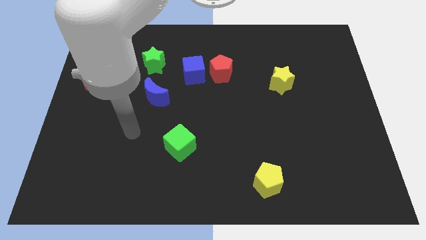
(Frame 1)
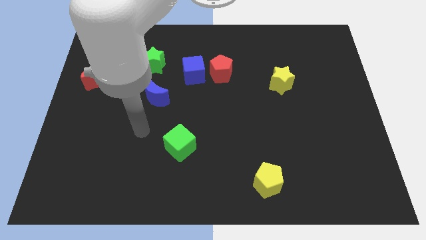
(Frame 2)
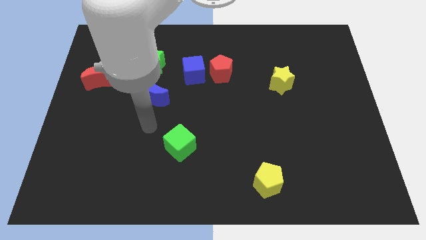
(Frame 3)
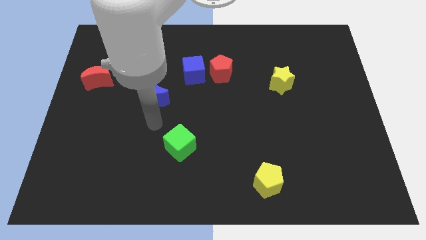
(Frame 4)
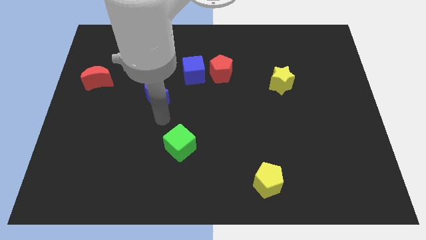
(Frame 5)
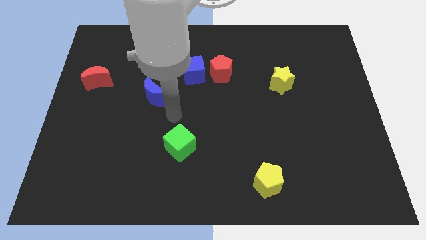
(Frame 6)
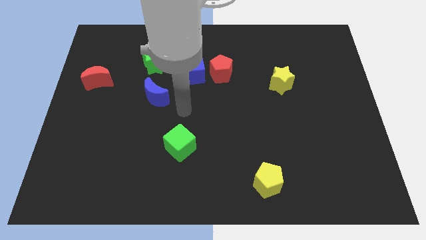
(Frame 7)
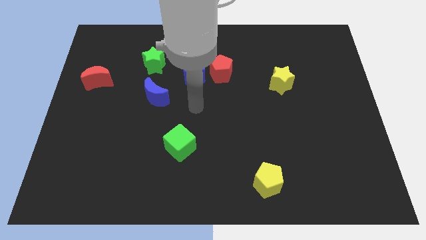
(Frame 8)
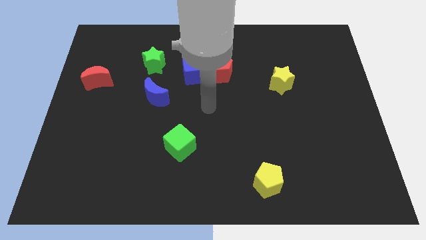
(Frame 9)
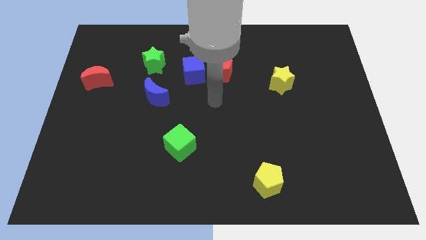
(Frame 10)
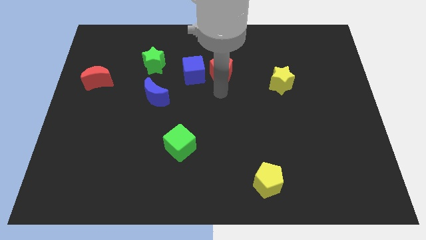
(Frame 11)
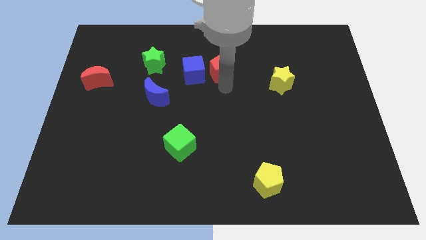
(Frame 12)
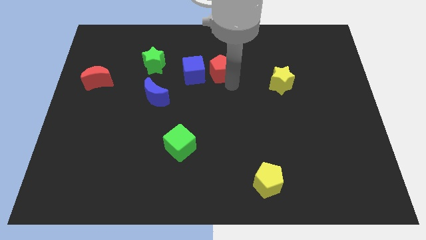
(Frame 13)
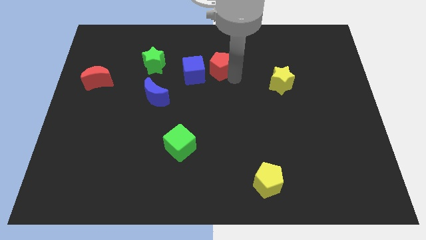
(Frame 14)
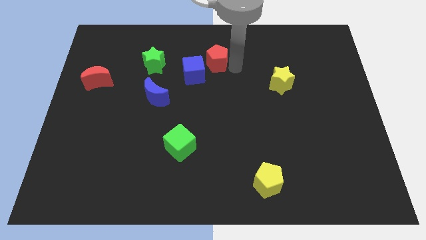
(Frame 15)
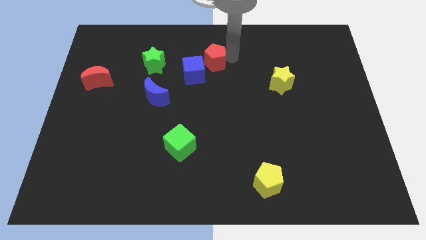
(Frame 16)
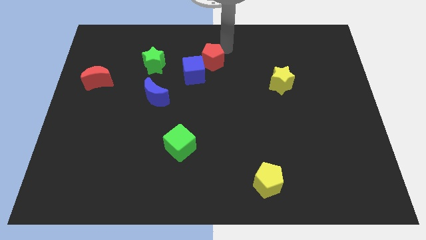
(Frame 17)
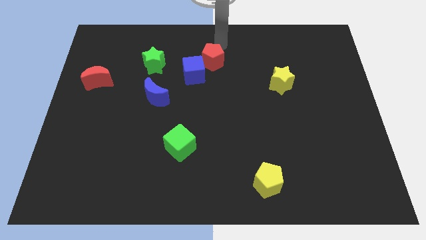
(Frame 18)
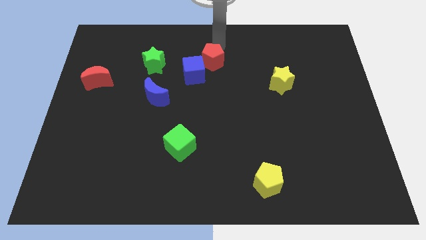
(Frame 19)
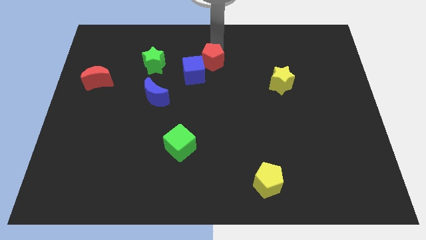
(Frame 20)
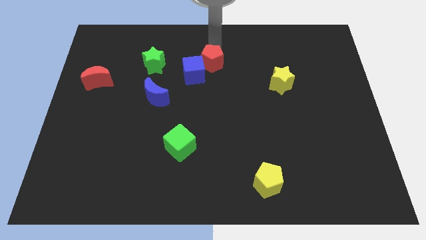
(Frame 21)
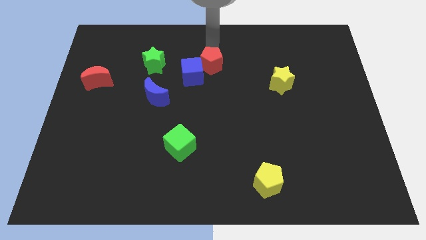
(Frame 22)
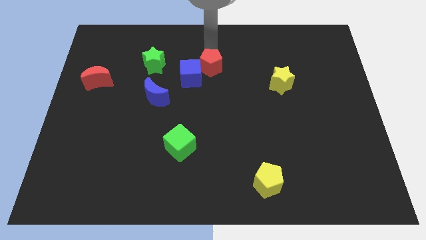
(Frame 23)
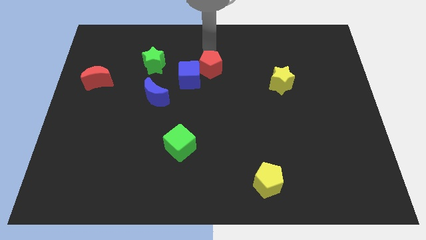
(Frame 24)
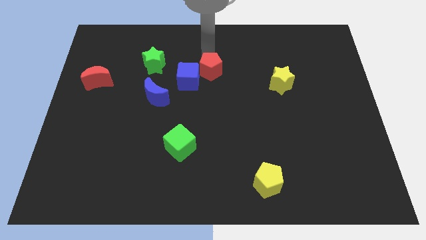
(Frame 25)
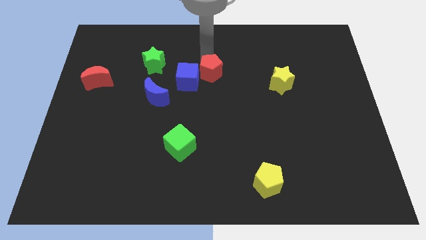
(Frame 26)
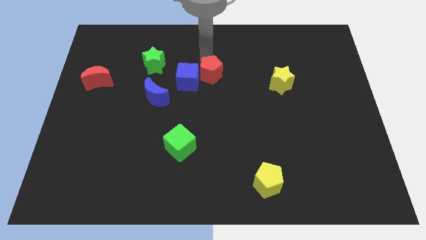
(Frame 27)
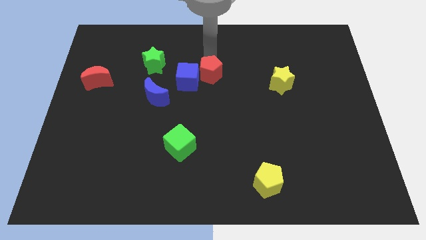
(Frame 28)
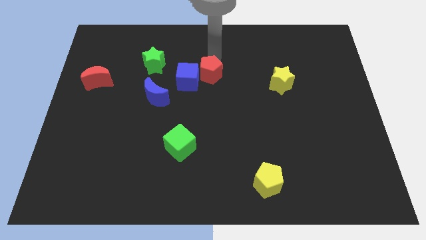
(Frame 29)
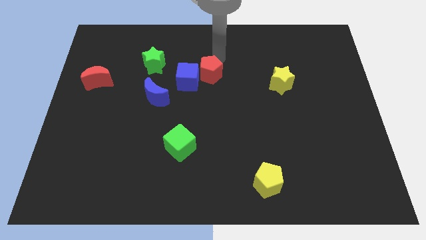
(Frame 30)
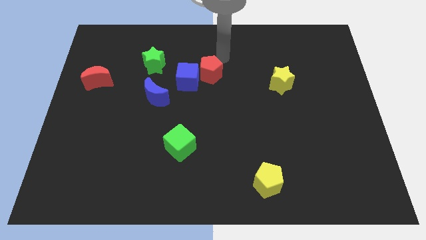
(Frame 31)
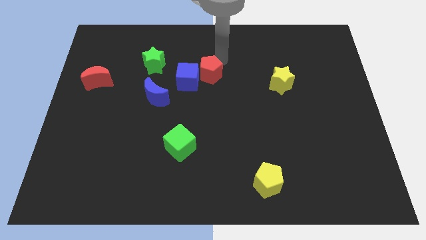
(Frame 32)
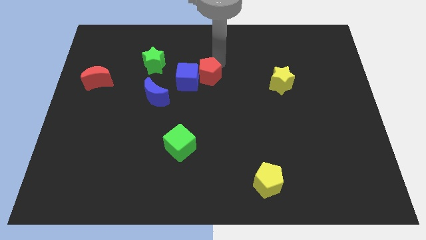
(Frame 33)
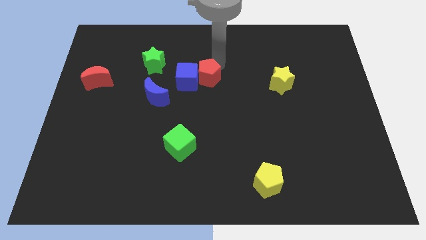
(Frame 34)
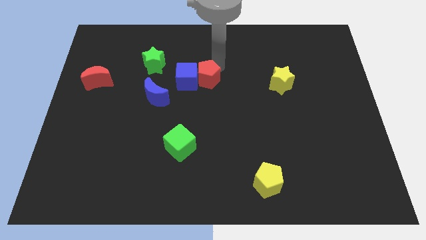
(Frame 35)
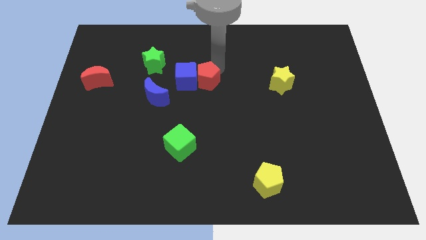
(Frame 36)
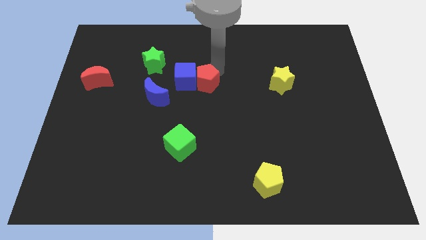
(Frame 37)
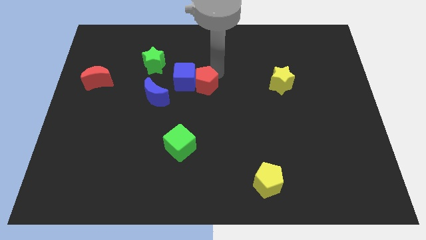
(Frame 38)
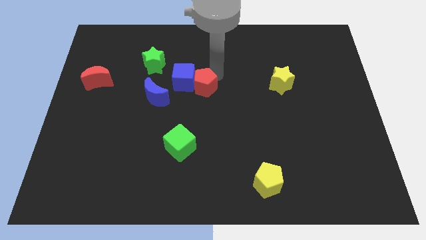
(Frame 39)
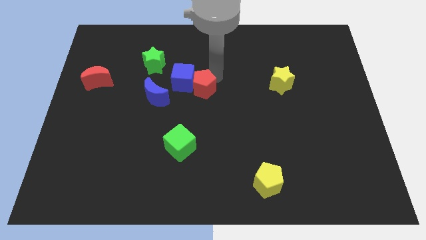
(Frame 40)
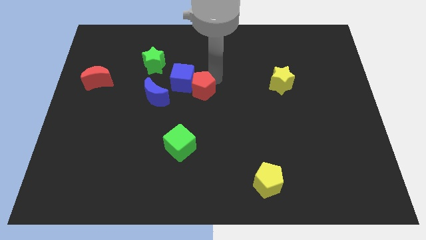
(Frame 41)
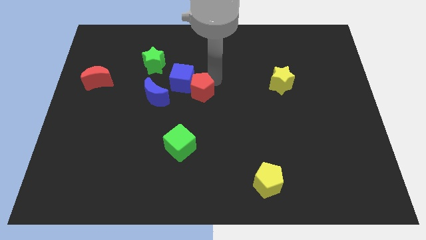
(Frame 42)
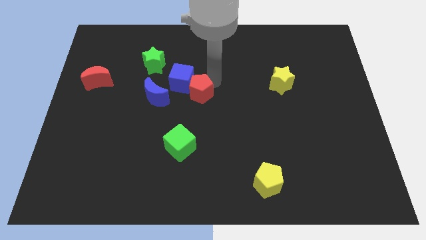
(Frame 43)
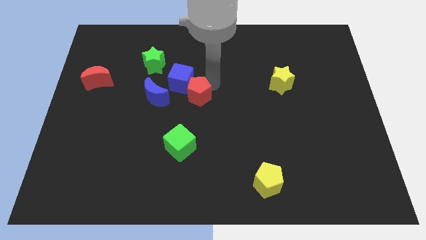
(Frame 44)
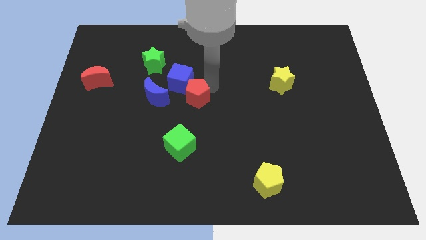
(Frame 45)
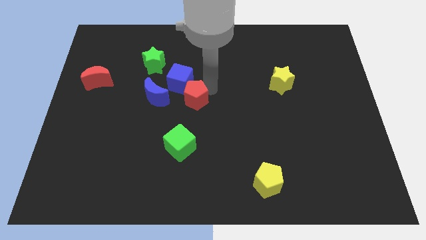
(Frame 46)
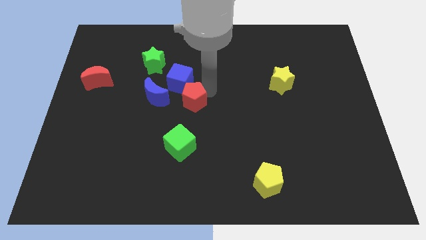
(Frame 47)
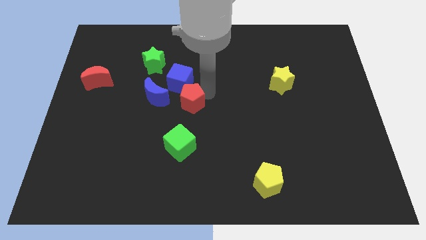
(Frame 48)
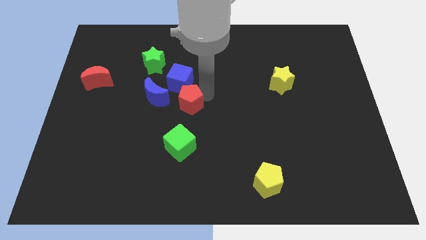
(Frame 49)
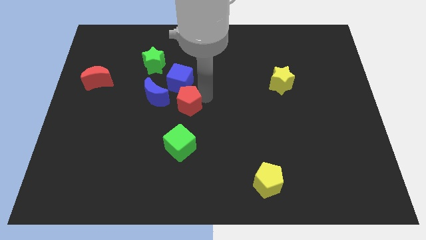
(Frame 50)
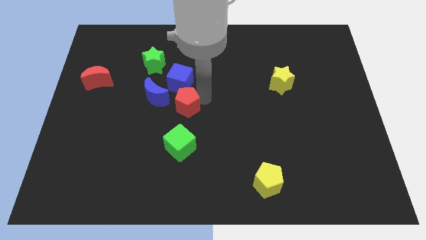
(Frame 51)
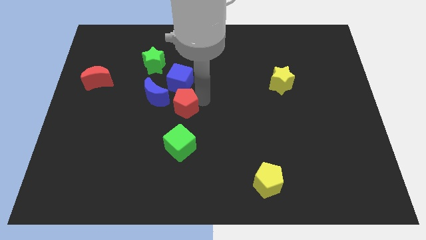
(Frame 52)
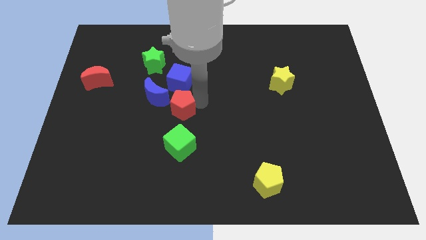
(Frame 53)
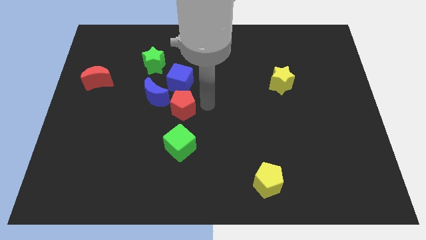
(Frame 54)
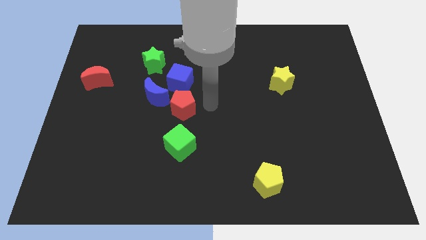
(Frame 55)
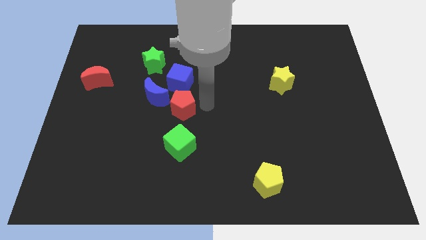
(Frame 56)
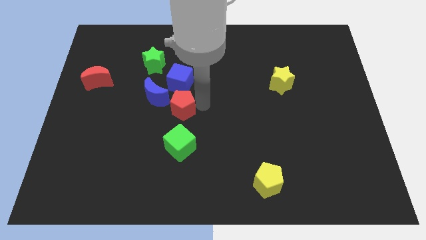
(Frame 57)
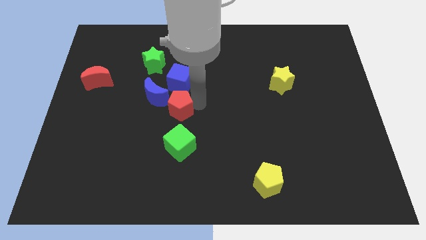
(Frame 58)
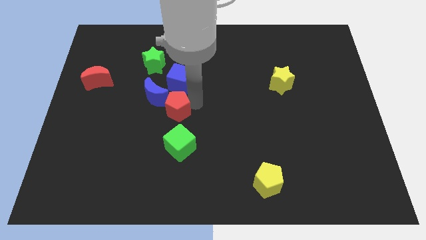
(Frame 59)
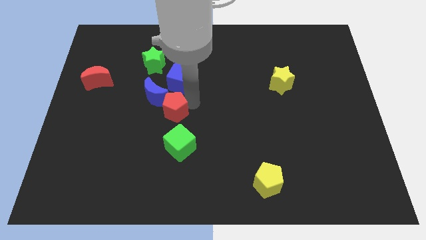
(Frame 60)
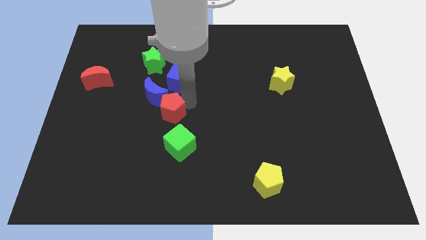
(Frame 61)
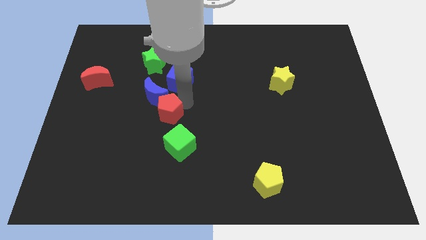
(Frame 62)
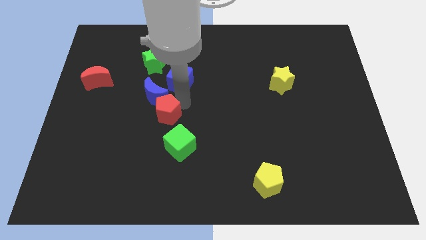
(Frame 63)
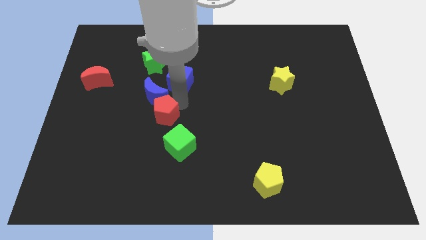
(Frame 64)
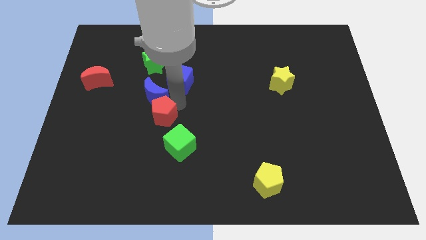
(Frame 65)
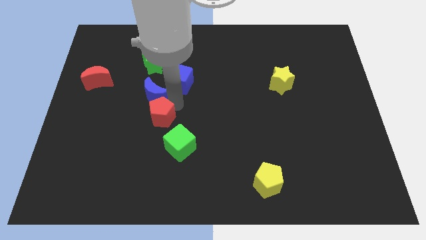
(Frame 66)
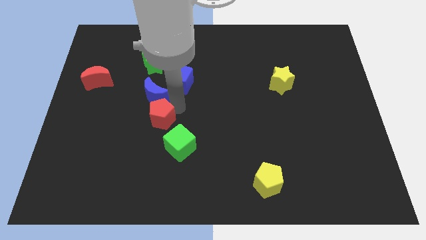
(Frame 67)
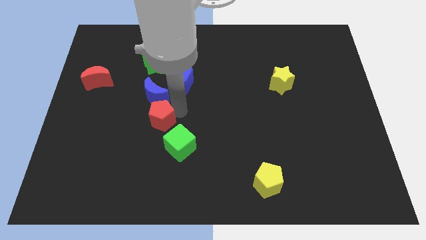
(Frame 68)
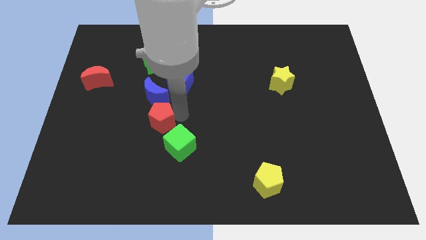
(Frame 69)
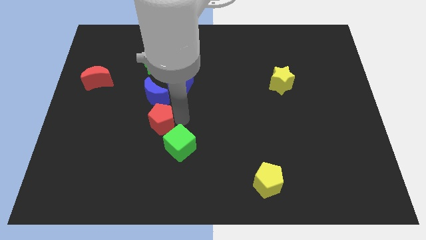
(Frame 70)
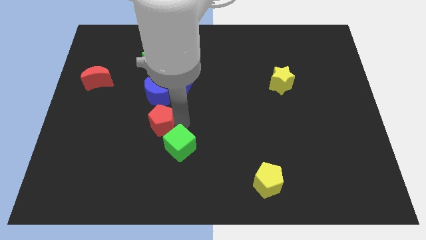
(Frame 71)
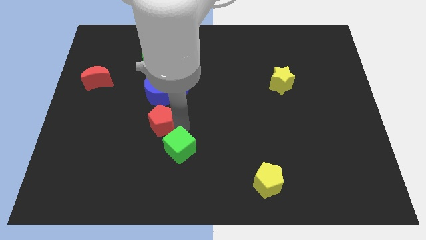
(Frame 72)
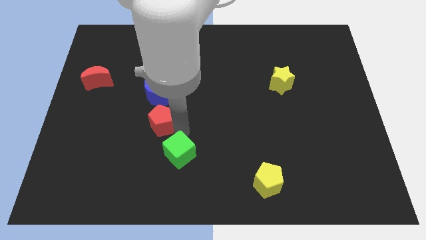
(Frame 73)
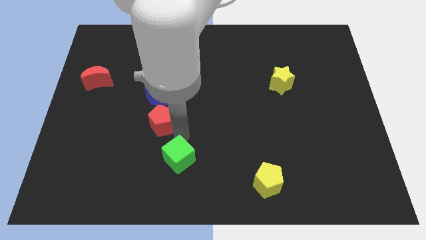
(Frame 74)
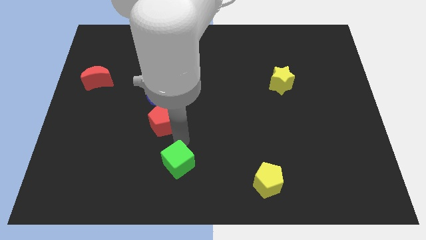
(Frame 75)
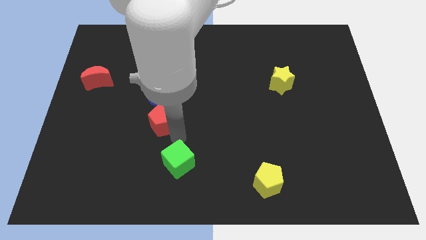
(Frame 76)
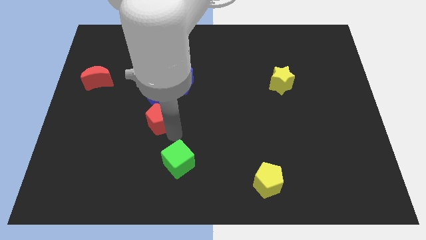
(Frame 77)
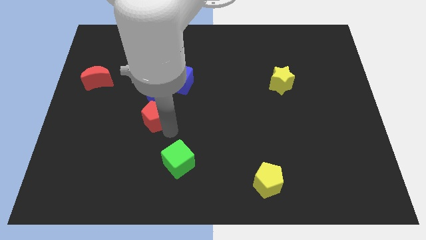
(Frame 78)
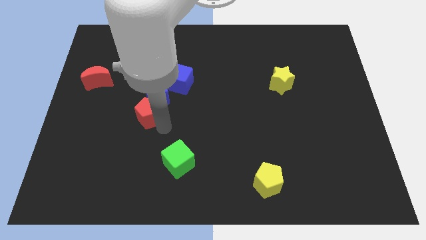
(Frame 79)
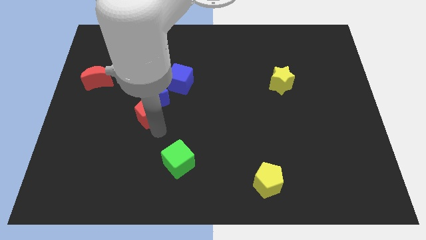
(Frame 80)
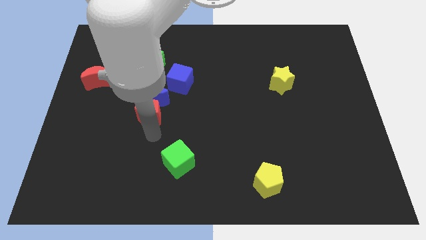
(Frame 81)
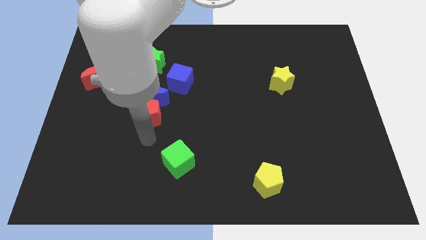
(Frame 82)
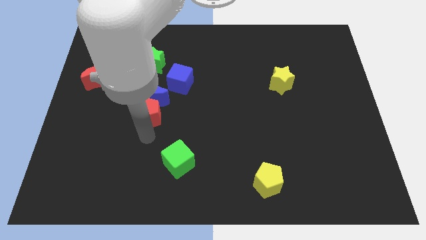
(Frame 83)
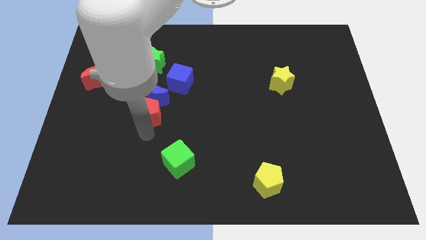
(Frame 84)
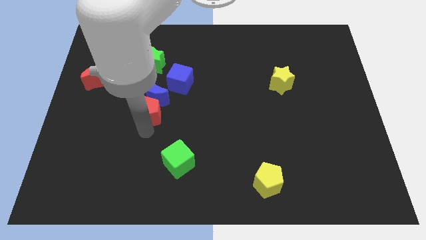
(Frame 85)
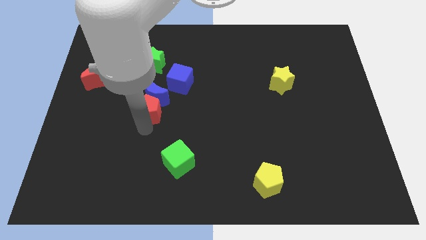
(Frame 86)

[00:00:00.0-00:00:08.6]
put the red pentagon to the bottom side of the green star
